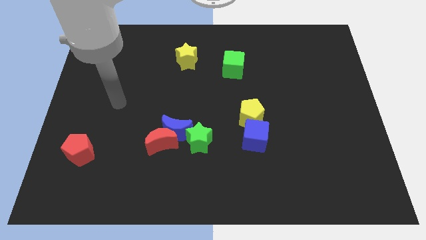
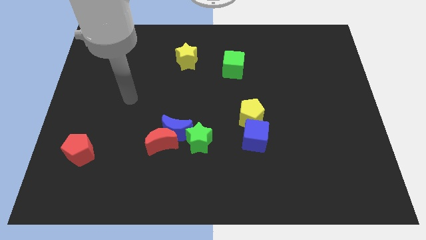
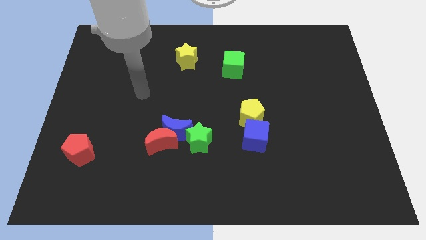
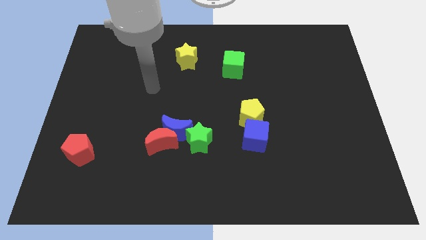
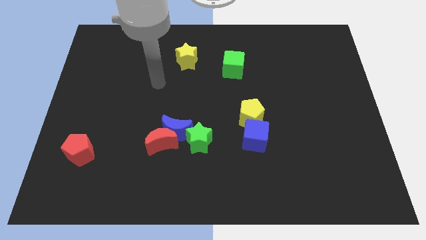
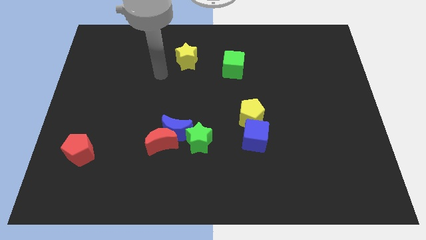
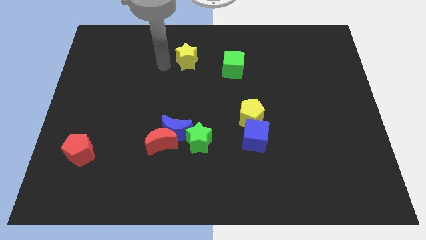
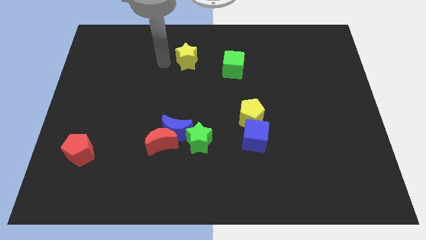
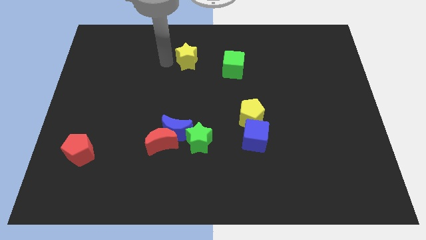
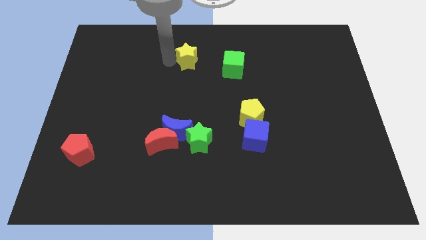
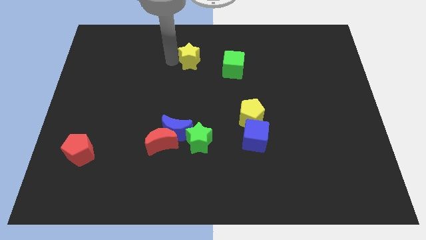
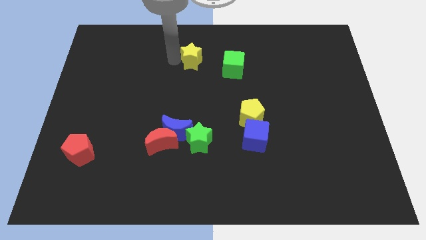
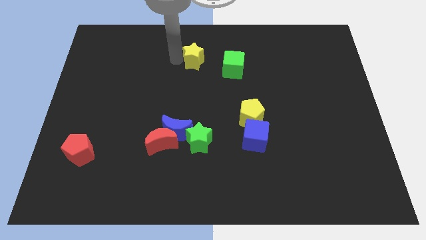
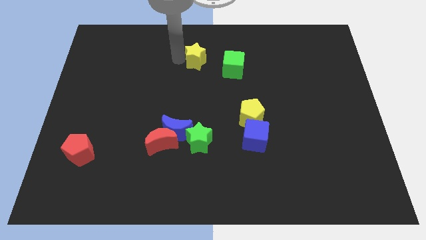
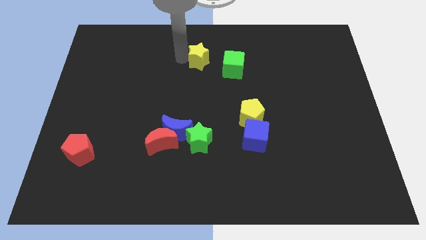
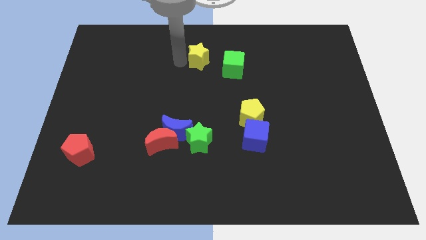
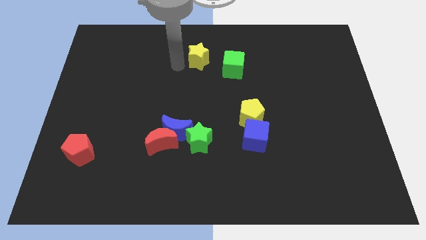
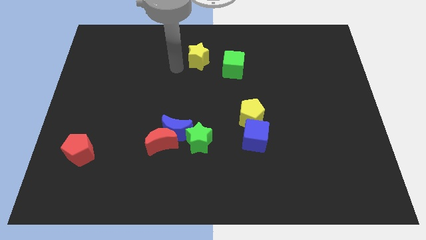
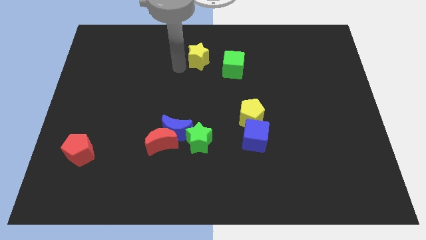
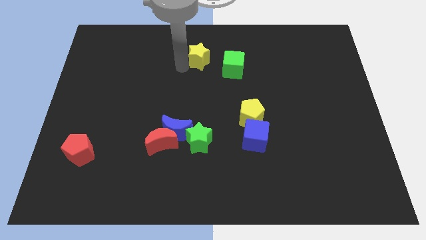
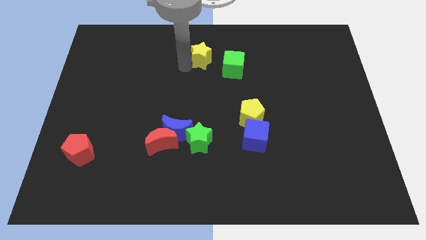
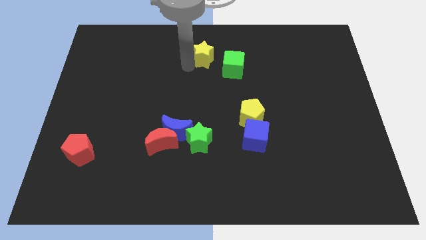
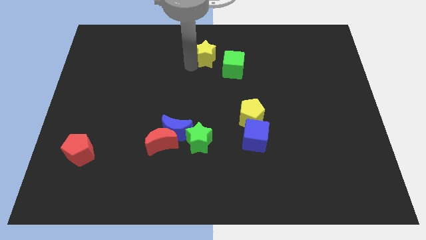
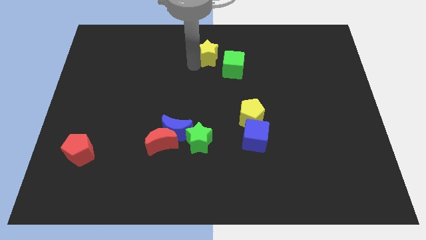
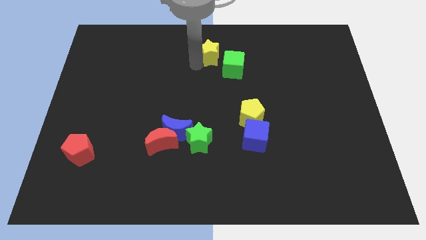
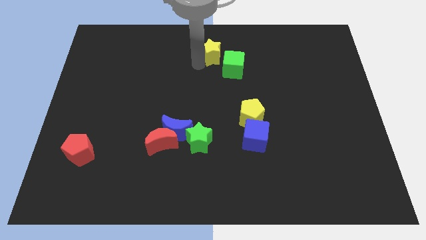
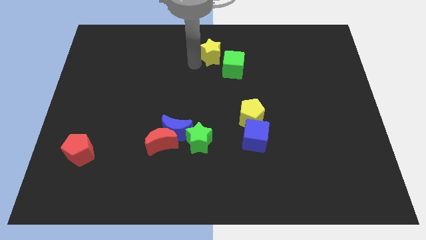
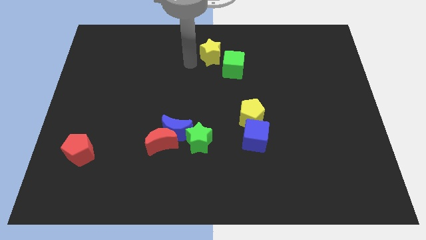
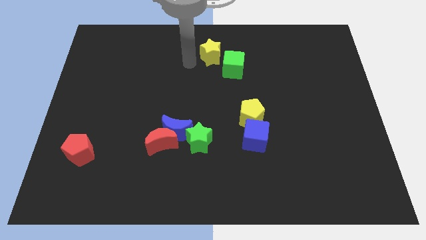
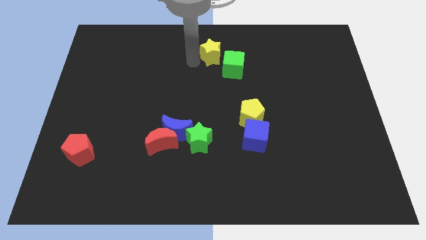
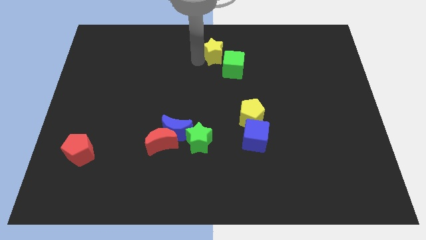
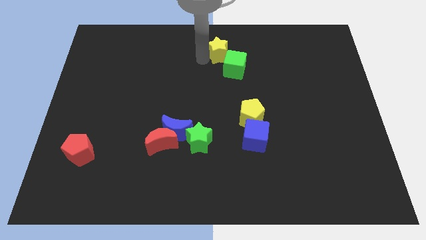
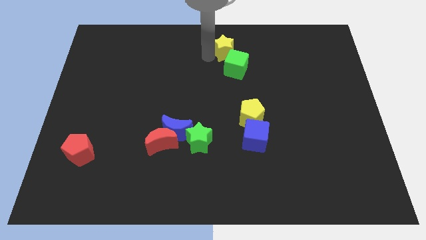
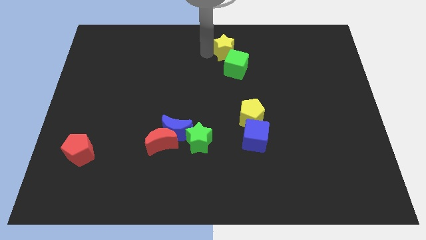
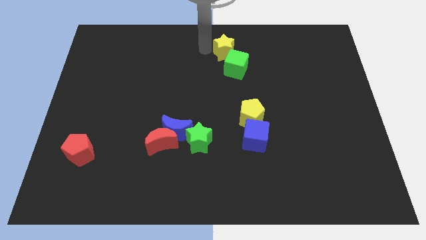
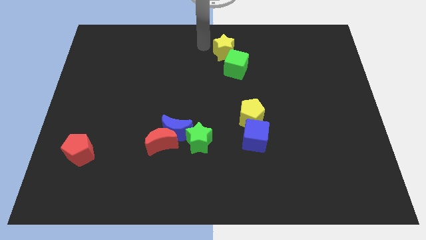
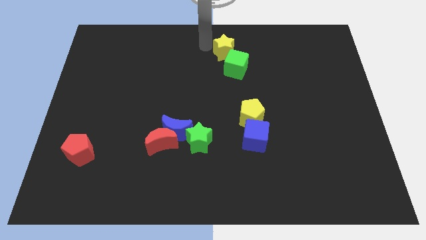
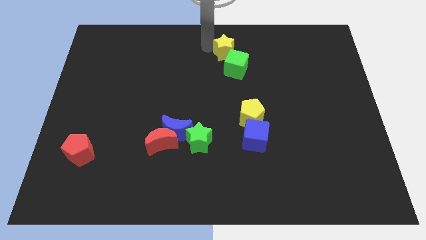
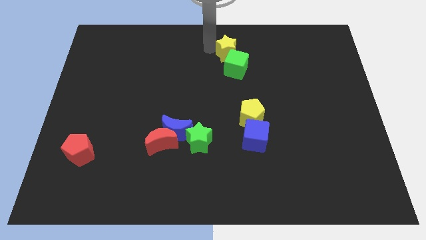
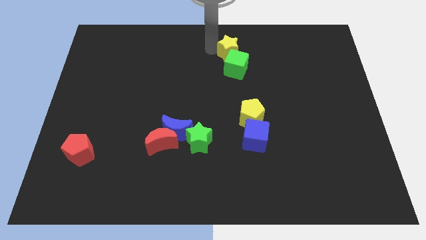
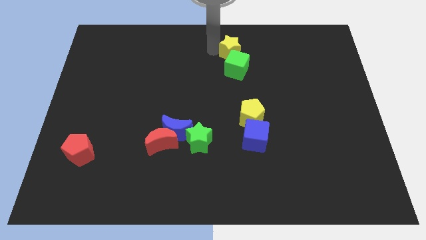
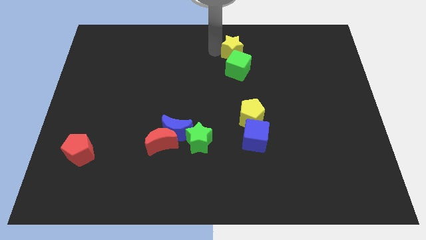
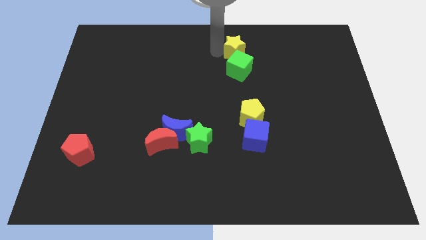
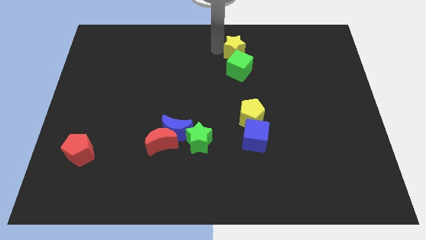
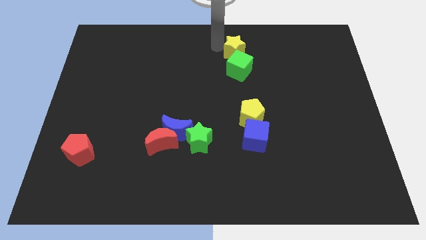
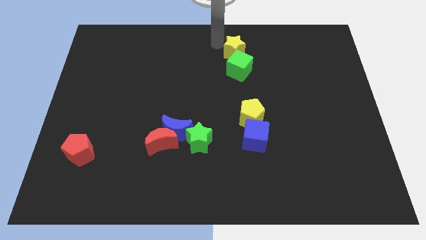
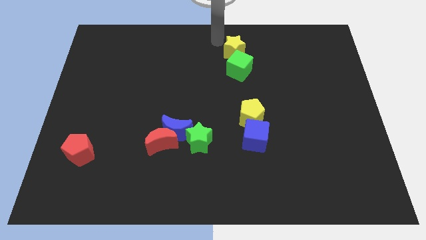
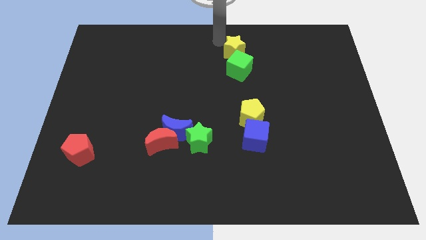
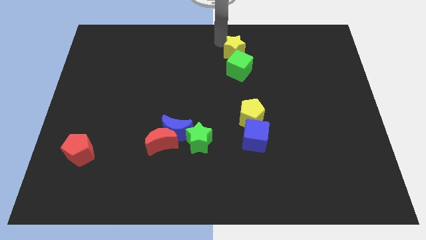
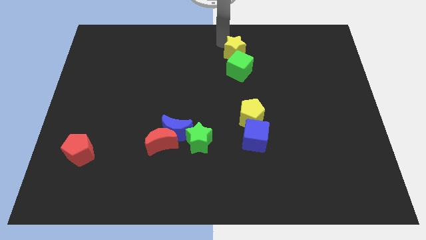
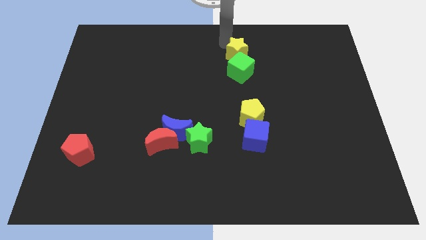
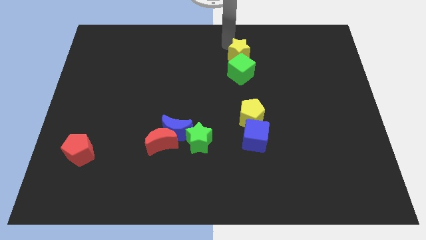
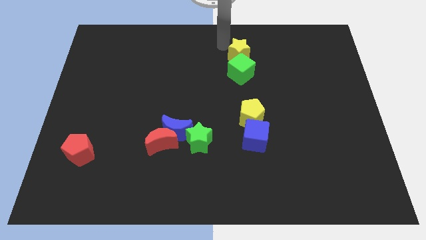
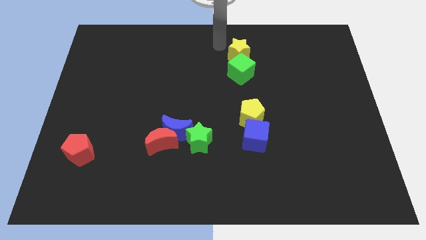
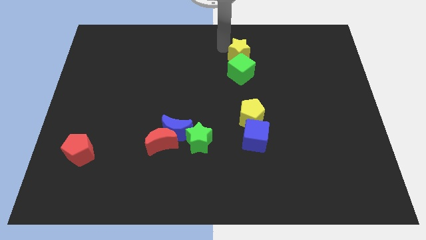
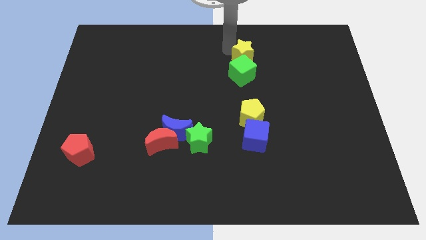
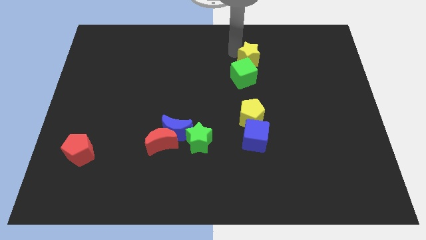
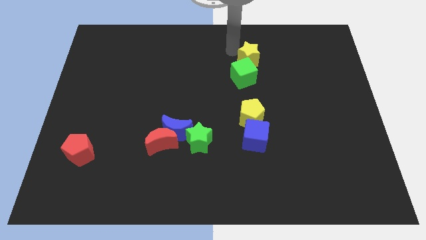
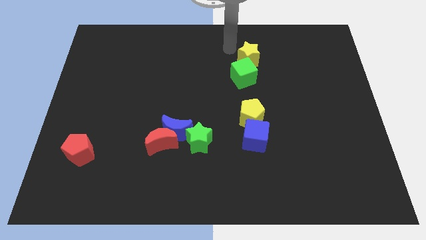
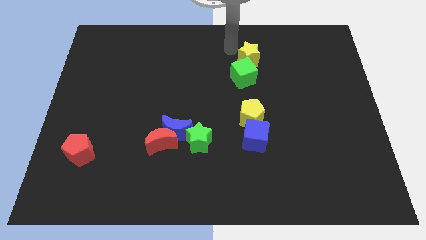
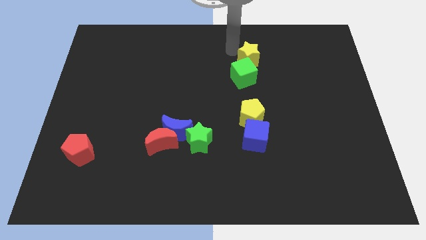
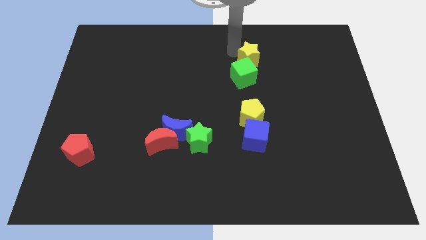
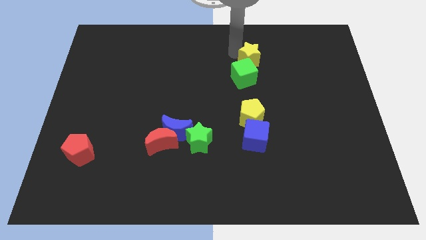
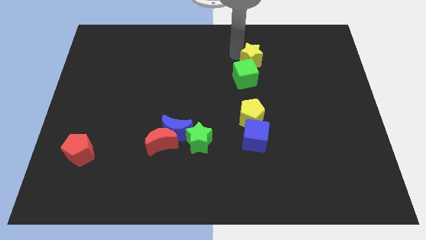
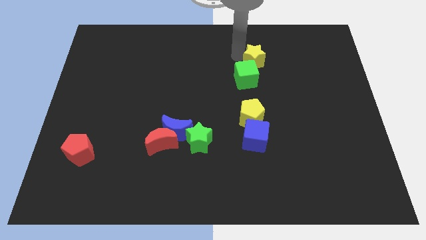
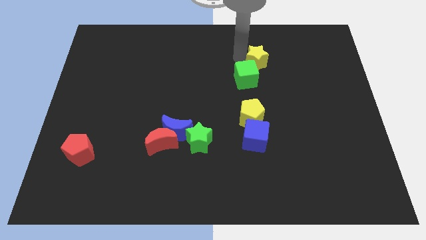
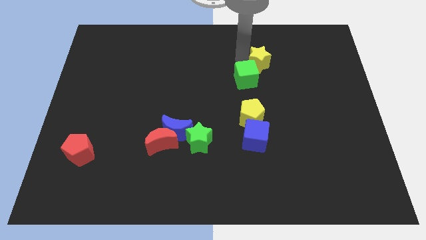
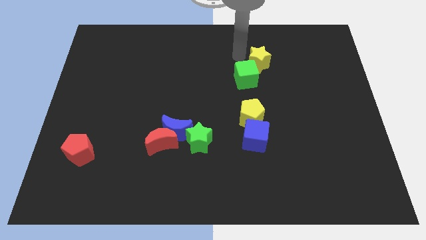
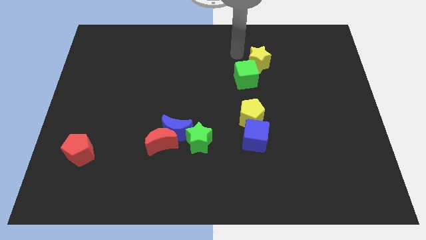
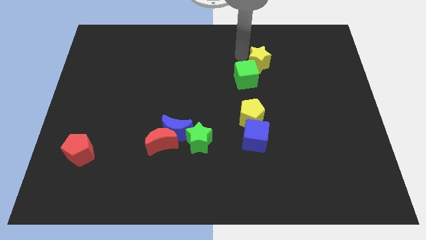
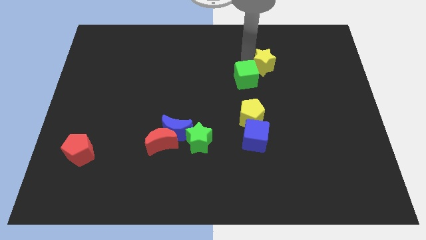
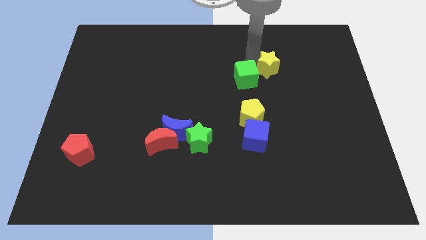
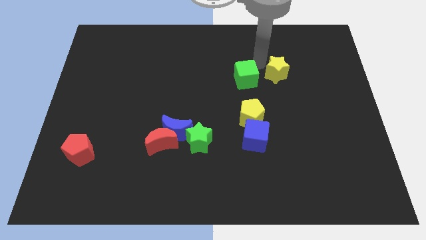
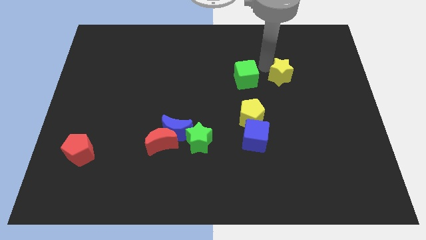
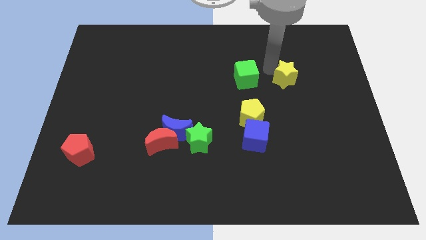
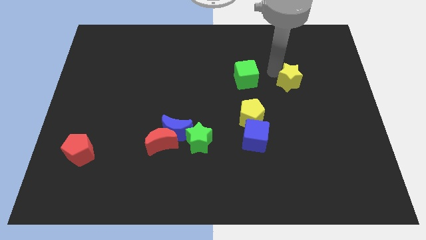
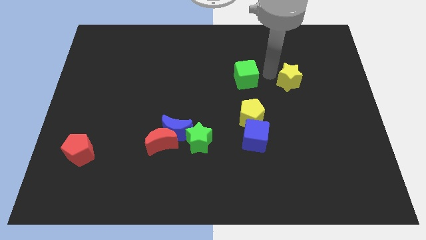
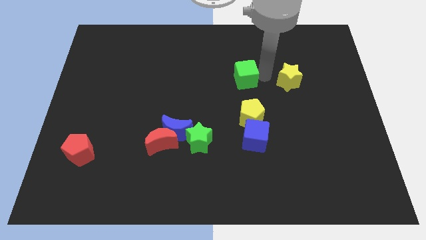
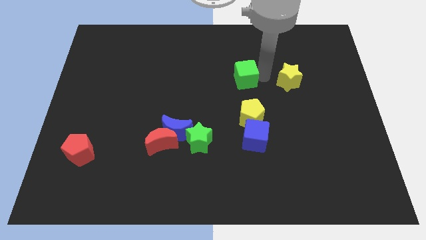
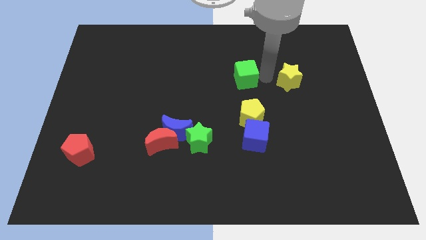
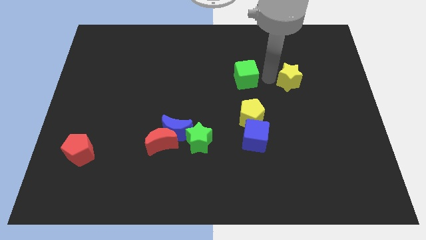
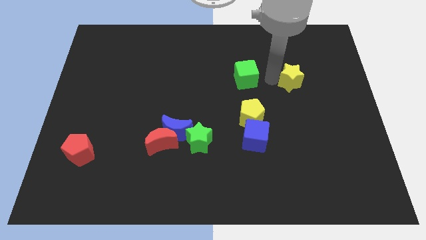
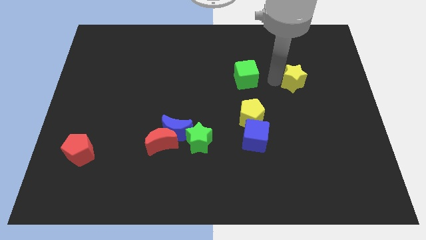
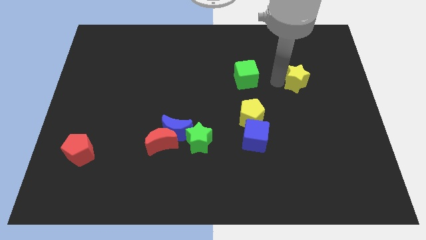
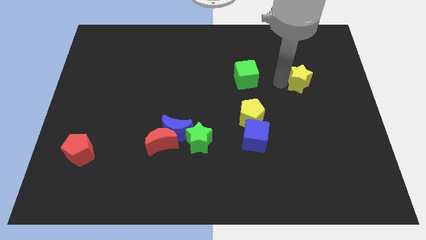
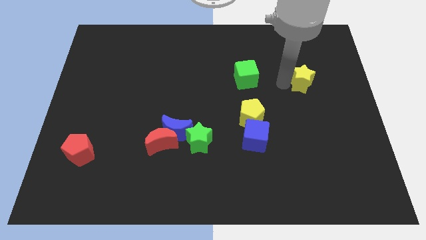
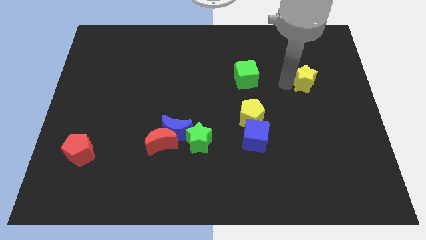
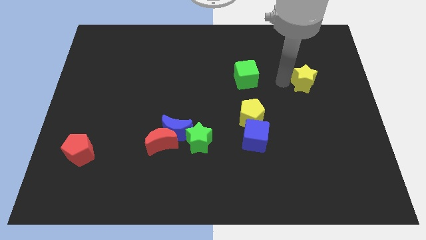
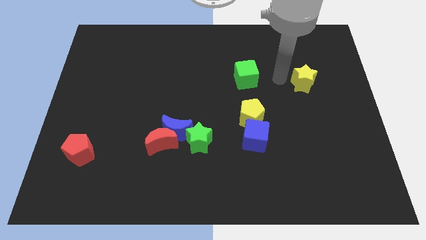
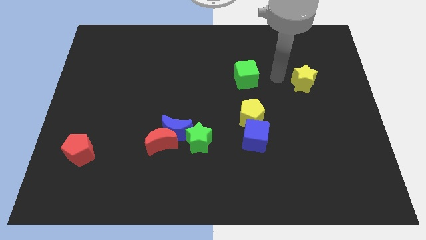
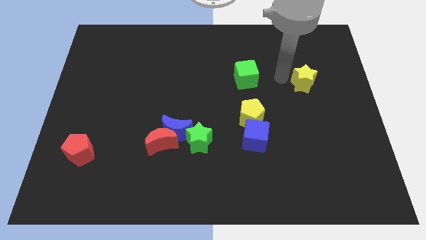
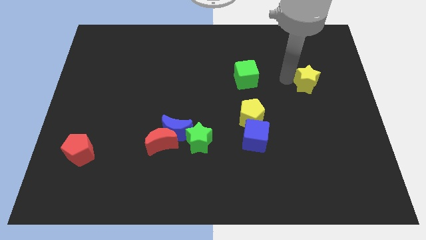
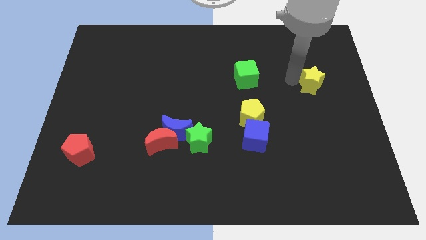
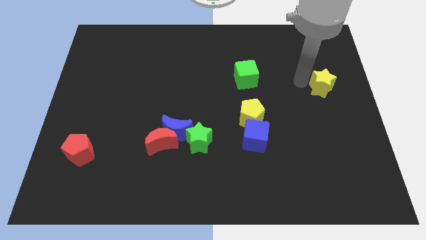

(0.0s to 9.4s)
put the yellow star to the right side
